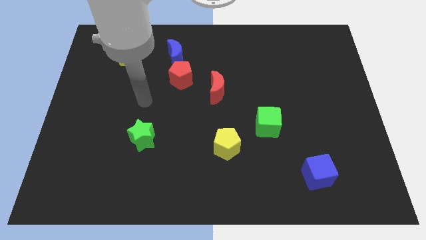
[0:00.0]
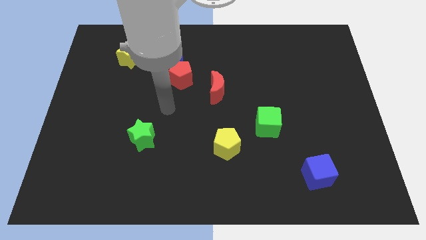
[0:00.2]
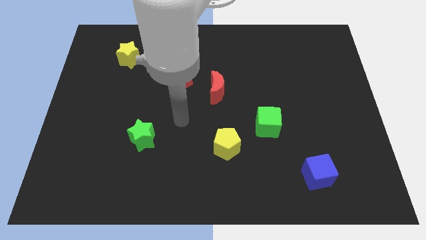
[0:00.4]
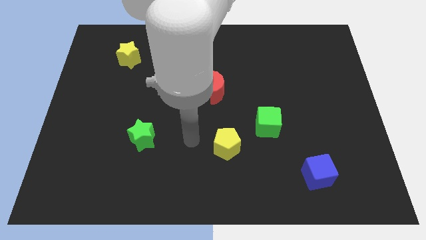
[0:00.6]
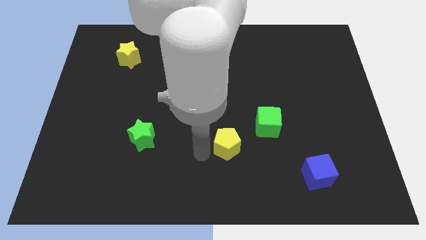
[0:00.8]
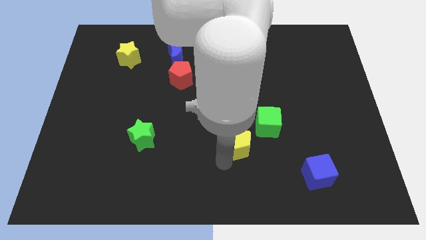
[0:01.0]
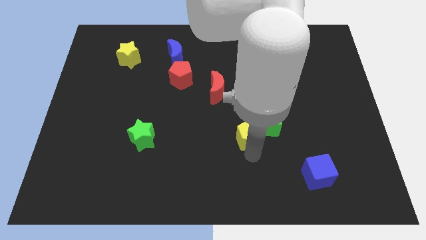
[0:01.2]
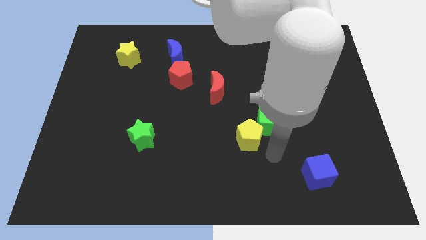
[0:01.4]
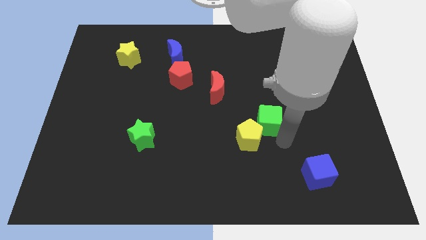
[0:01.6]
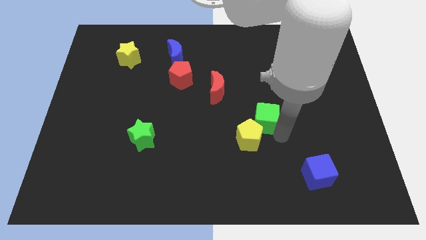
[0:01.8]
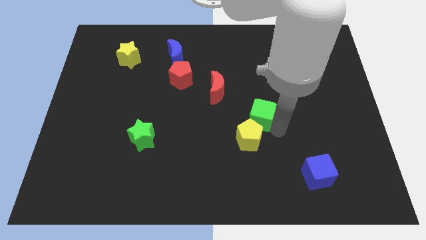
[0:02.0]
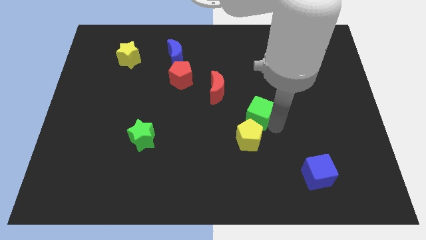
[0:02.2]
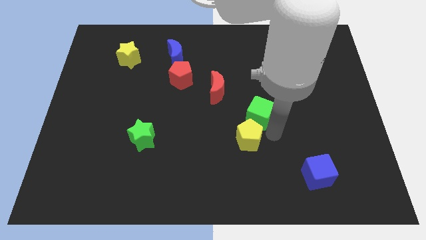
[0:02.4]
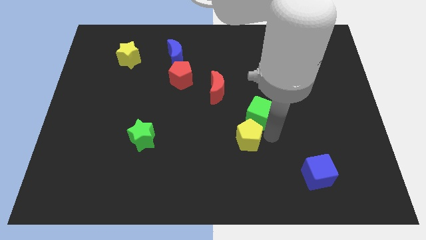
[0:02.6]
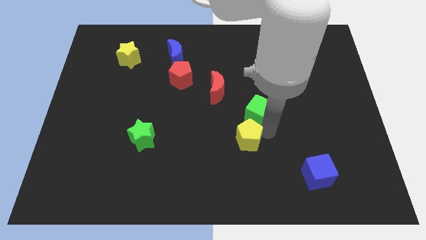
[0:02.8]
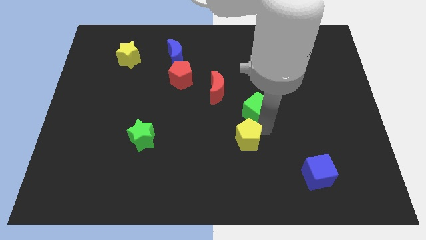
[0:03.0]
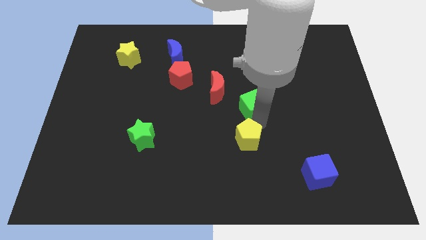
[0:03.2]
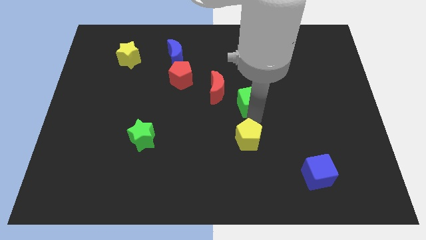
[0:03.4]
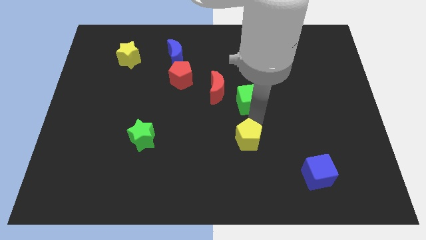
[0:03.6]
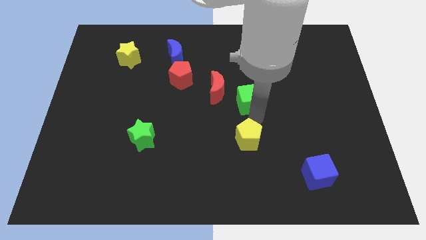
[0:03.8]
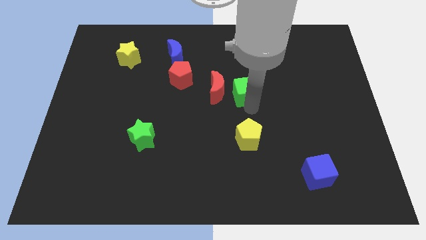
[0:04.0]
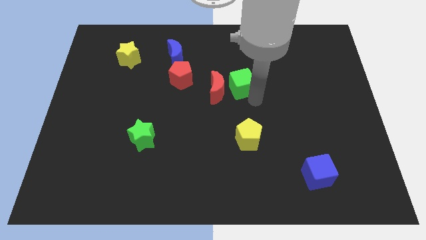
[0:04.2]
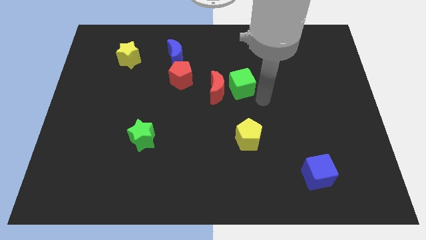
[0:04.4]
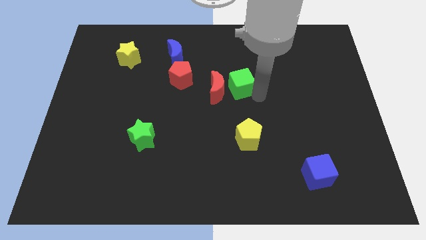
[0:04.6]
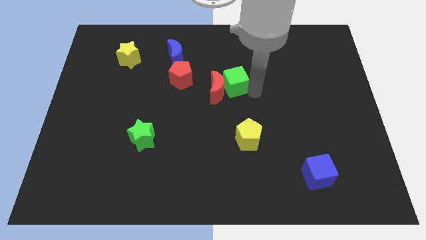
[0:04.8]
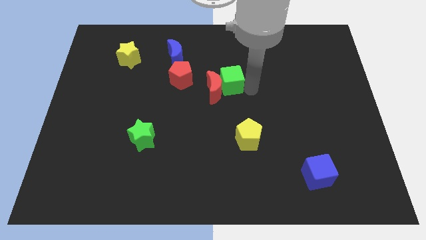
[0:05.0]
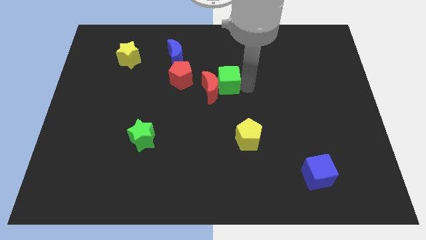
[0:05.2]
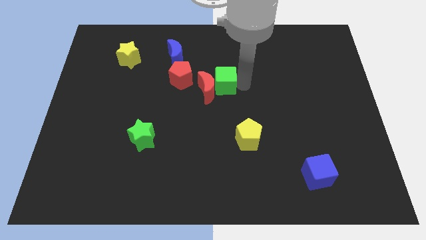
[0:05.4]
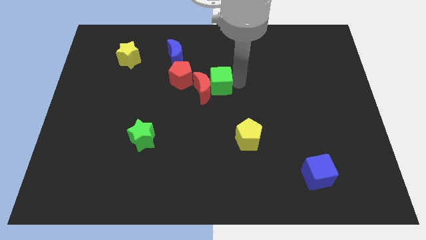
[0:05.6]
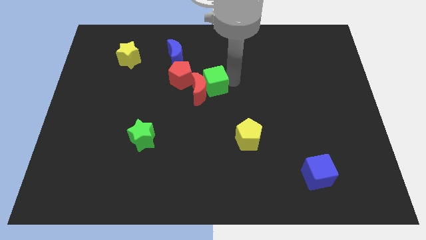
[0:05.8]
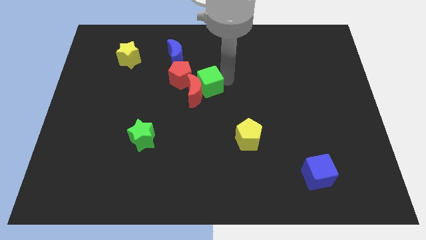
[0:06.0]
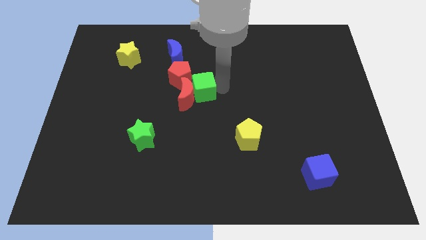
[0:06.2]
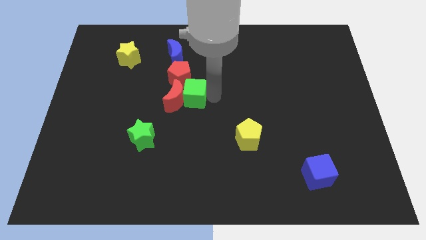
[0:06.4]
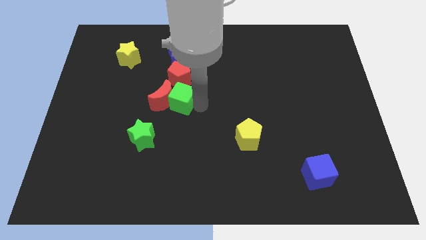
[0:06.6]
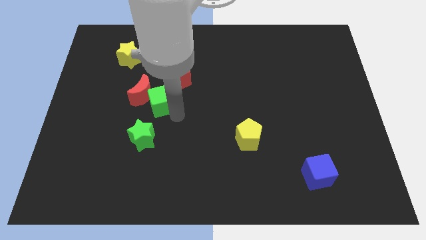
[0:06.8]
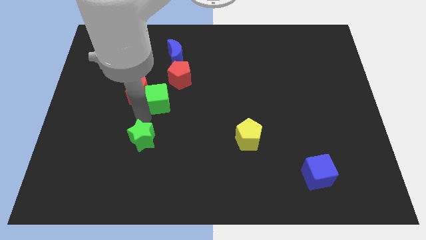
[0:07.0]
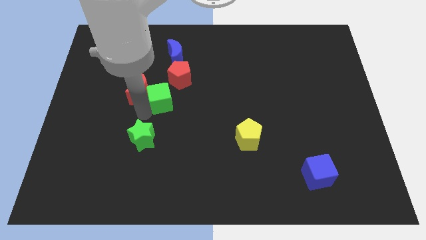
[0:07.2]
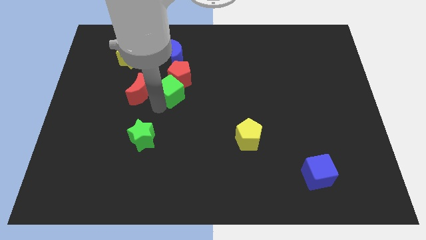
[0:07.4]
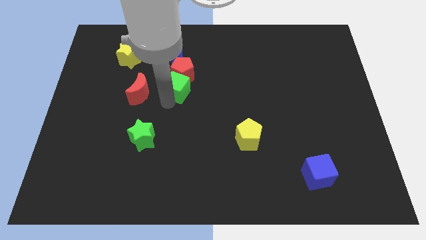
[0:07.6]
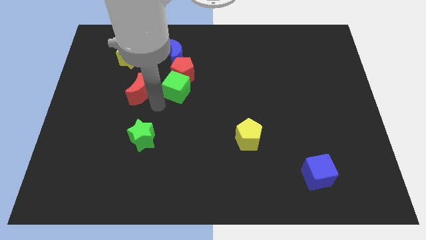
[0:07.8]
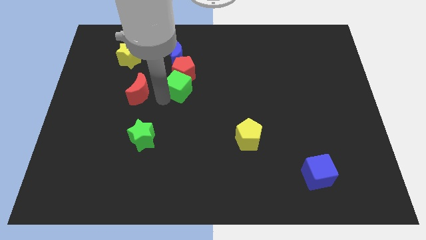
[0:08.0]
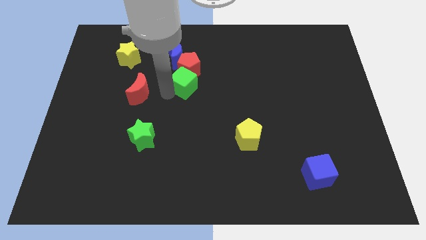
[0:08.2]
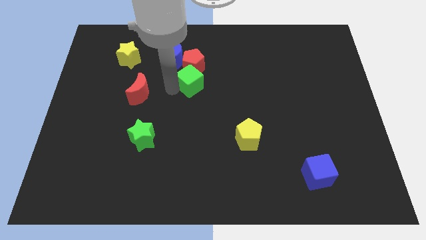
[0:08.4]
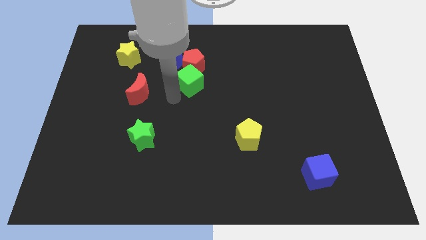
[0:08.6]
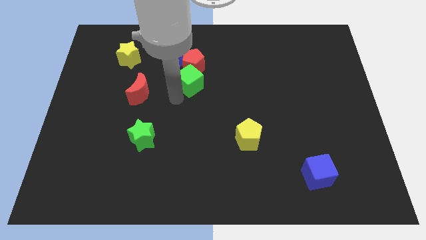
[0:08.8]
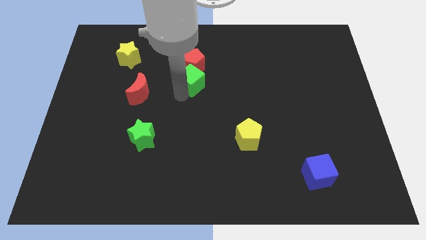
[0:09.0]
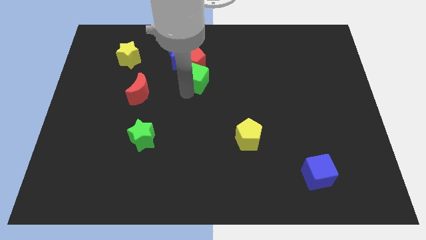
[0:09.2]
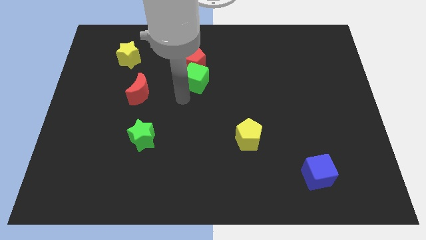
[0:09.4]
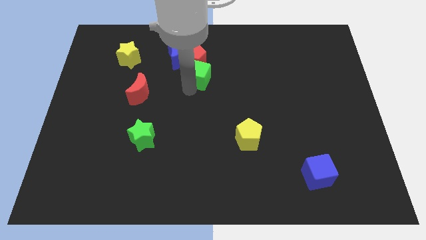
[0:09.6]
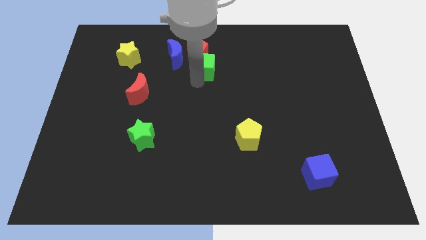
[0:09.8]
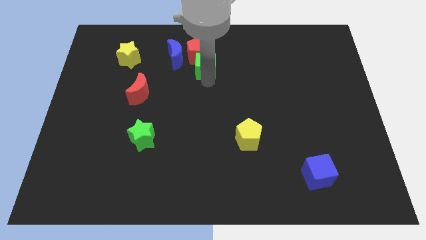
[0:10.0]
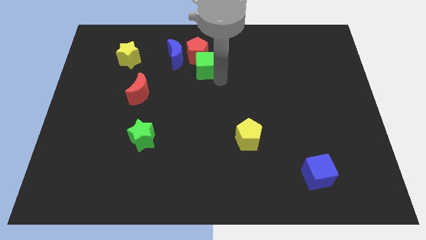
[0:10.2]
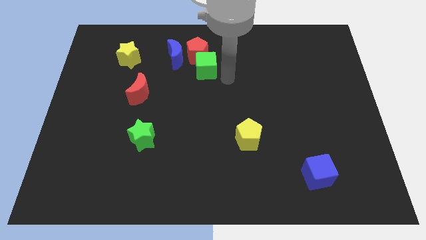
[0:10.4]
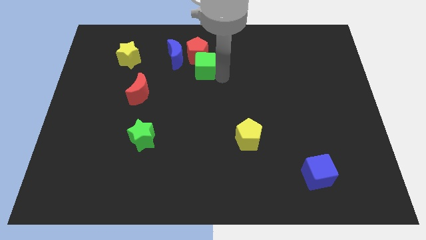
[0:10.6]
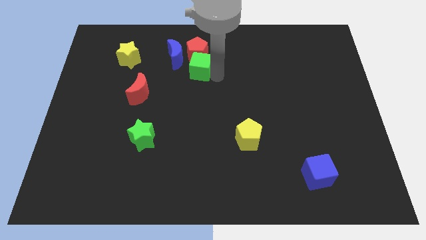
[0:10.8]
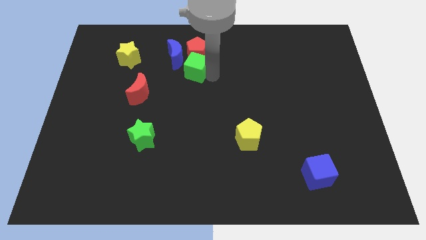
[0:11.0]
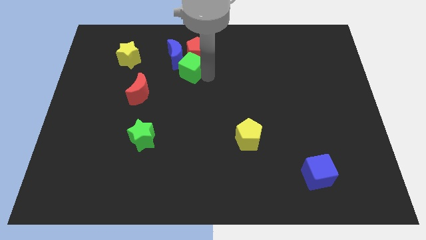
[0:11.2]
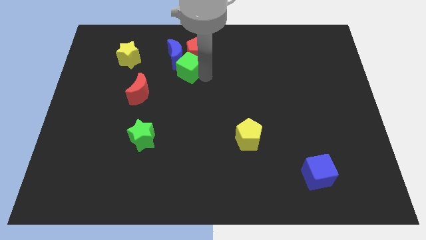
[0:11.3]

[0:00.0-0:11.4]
slide the green cube close to the blue moon

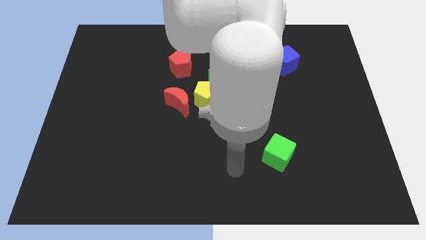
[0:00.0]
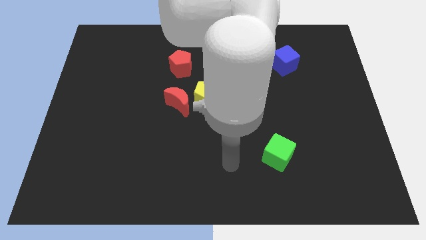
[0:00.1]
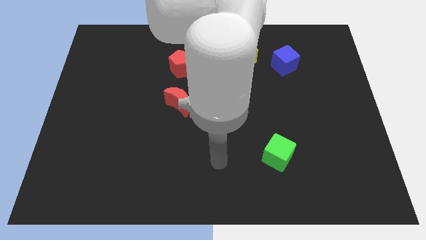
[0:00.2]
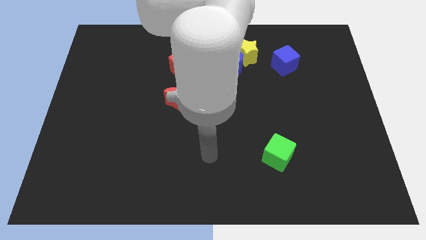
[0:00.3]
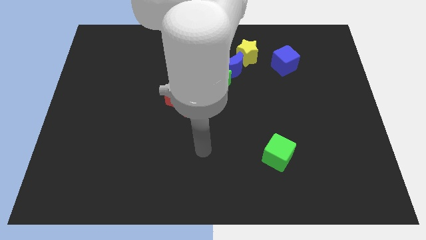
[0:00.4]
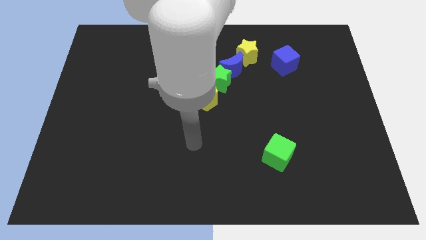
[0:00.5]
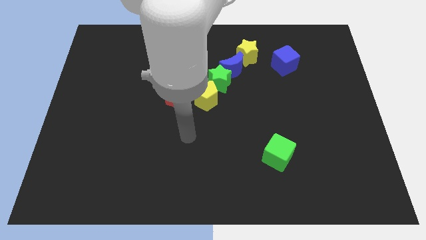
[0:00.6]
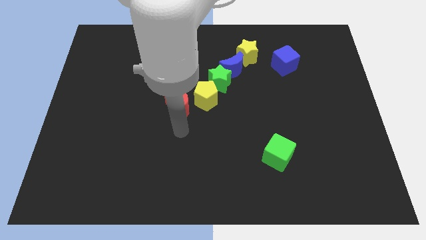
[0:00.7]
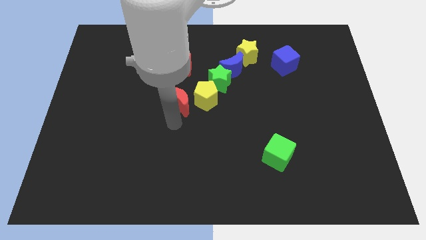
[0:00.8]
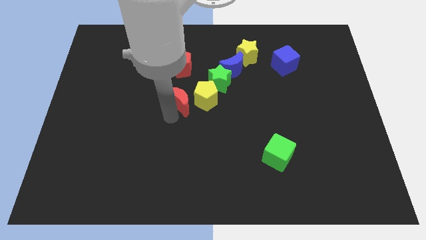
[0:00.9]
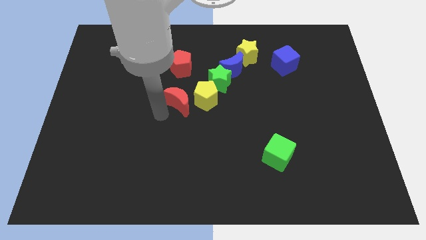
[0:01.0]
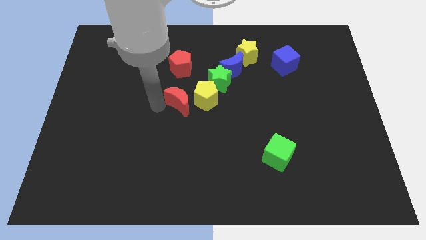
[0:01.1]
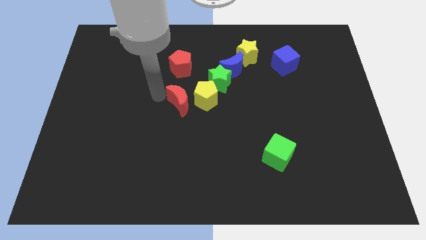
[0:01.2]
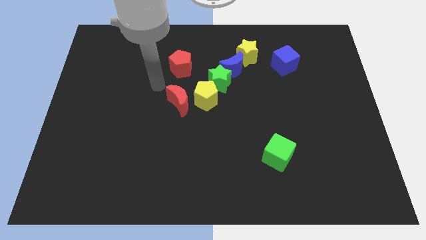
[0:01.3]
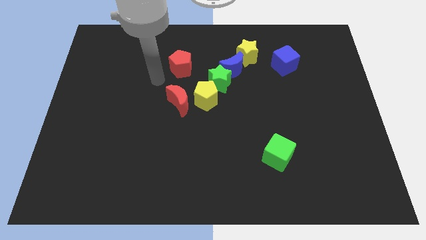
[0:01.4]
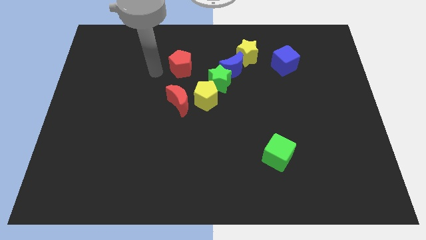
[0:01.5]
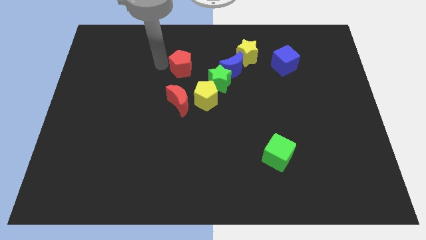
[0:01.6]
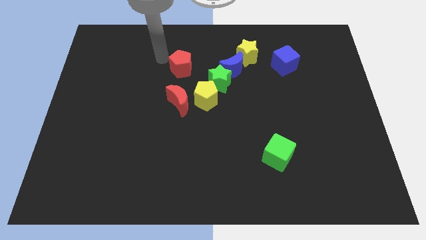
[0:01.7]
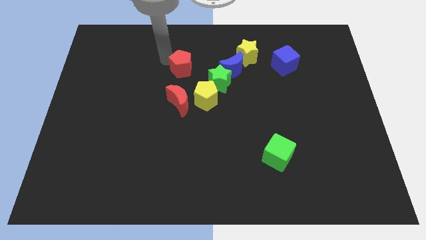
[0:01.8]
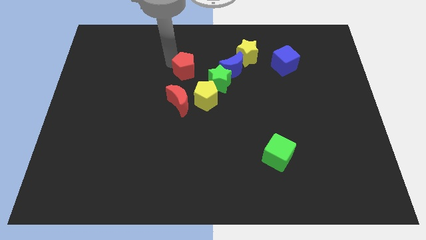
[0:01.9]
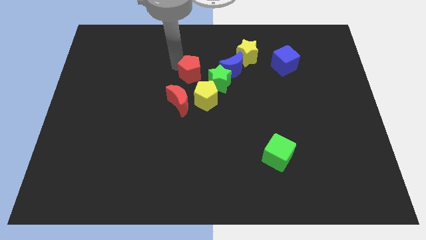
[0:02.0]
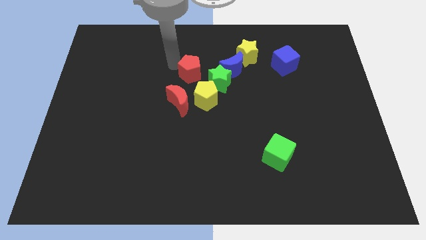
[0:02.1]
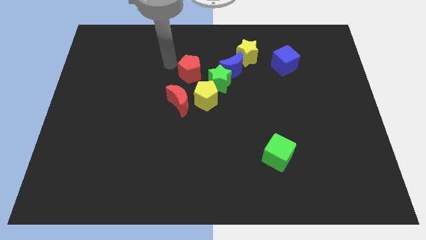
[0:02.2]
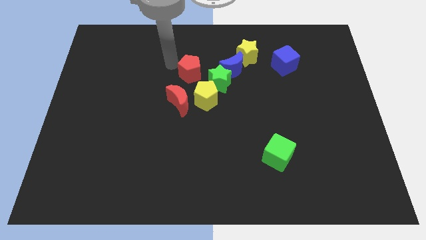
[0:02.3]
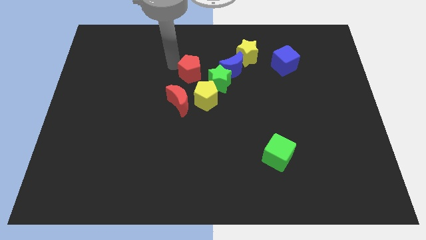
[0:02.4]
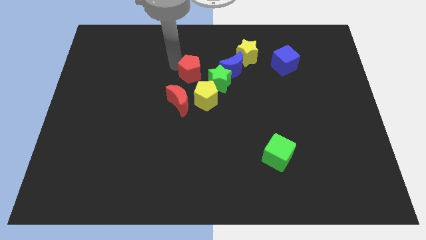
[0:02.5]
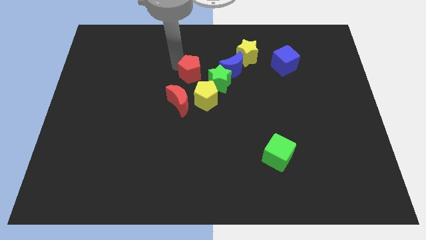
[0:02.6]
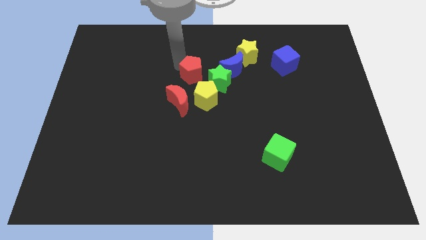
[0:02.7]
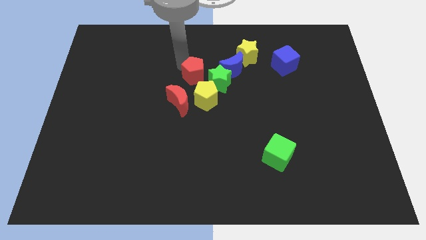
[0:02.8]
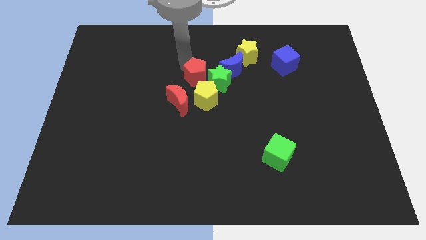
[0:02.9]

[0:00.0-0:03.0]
move the red pentagon next to the green star
